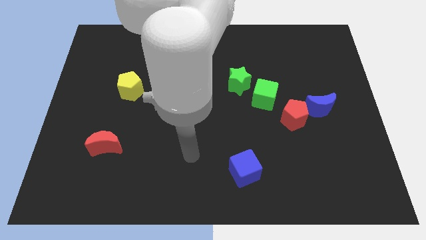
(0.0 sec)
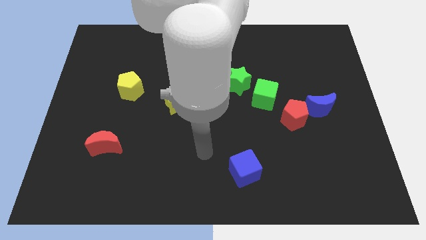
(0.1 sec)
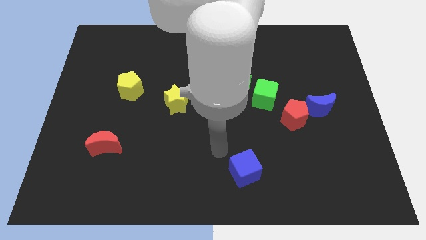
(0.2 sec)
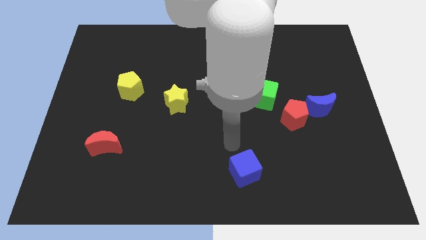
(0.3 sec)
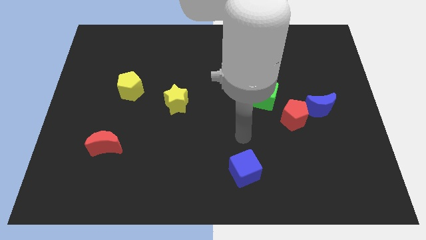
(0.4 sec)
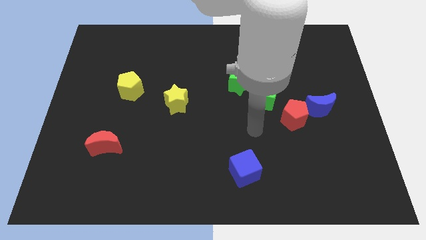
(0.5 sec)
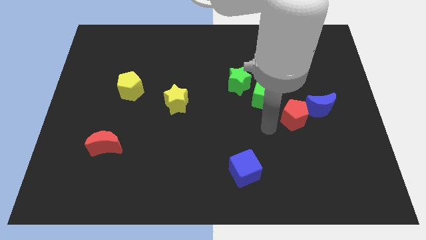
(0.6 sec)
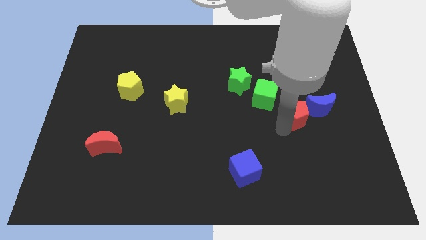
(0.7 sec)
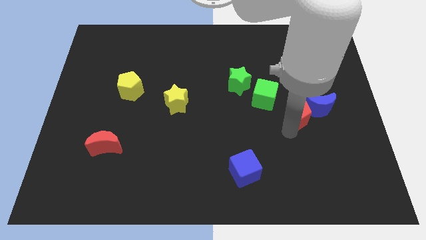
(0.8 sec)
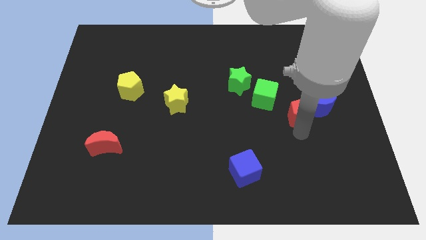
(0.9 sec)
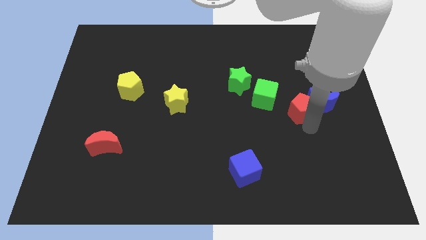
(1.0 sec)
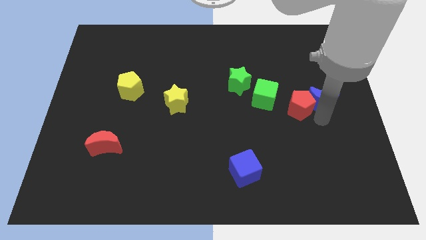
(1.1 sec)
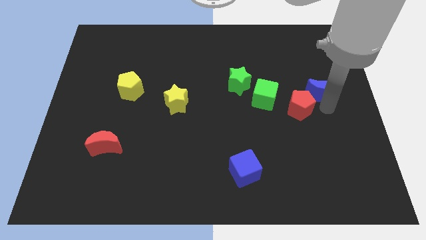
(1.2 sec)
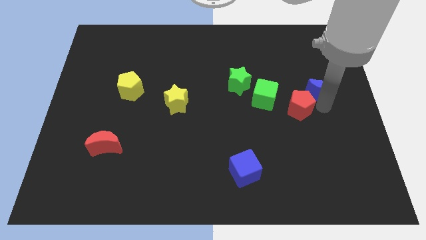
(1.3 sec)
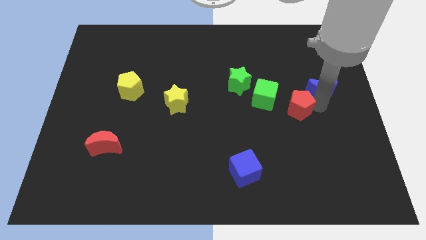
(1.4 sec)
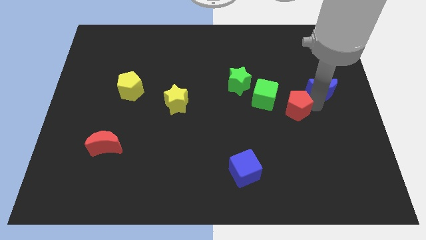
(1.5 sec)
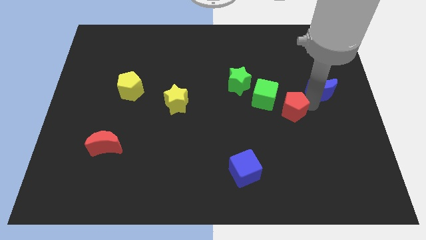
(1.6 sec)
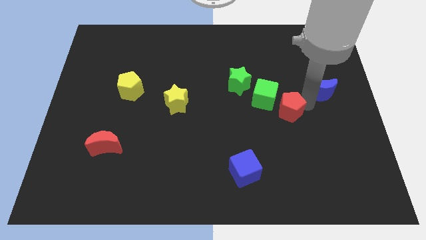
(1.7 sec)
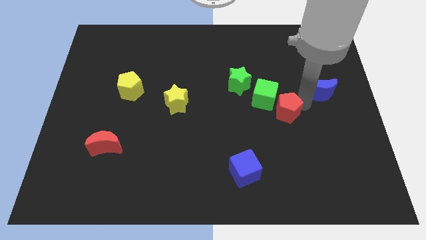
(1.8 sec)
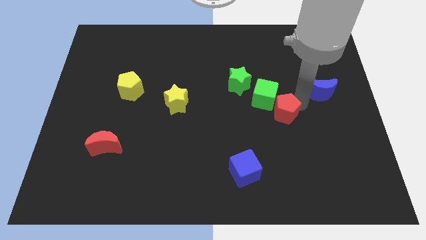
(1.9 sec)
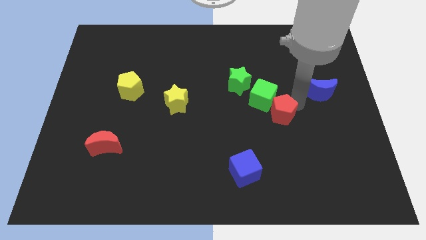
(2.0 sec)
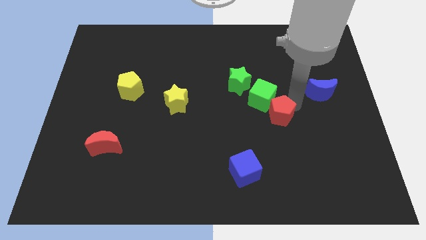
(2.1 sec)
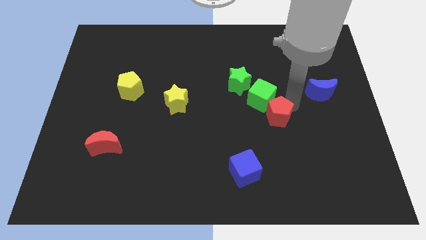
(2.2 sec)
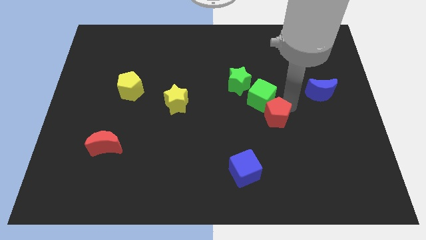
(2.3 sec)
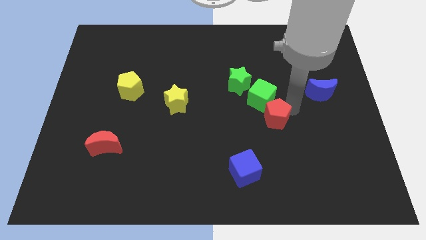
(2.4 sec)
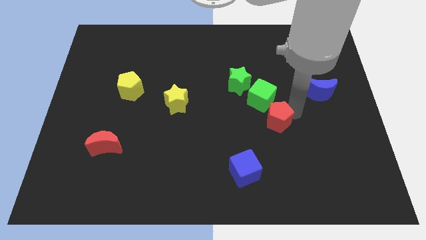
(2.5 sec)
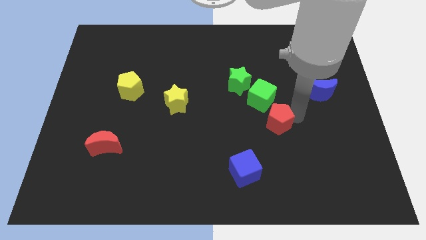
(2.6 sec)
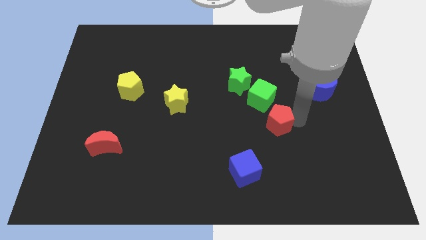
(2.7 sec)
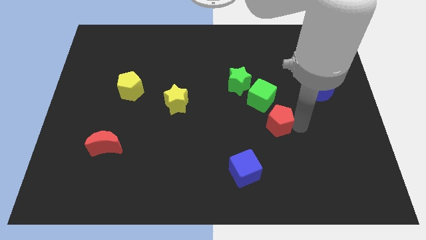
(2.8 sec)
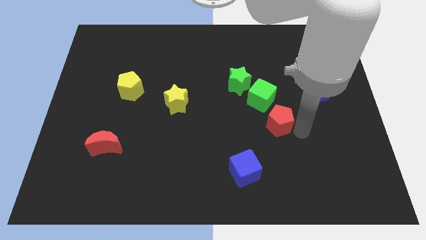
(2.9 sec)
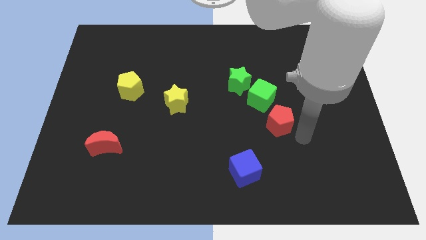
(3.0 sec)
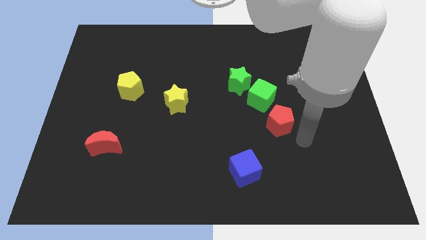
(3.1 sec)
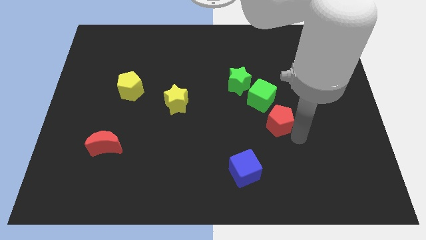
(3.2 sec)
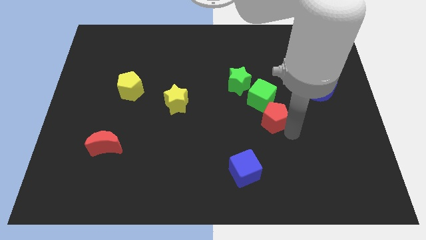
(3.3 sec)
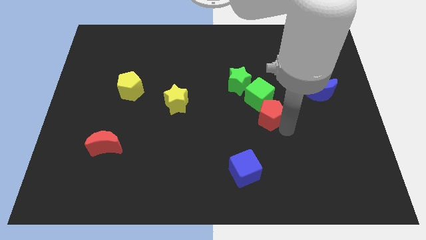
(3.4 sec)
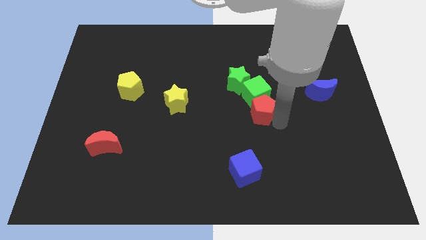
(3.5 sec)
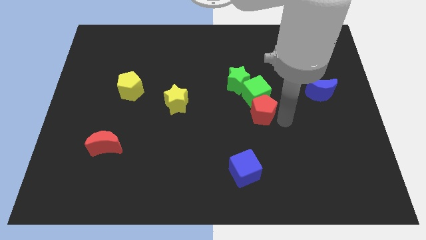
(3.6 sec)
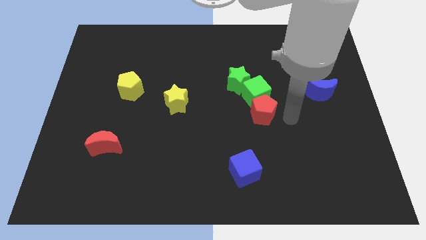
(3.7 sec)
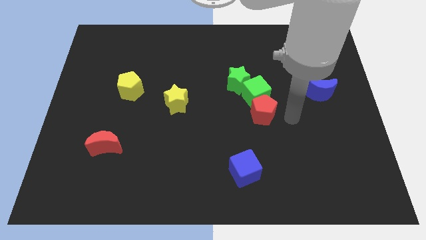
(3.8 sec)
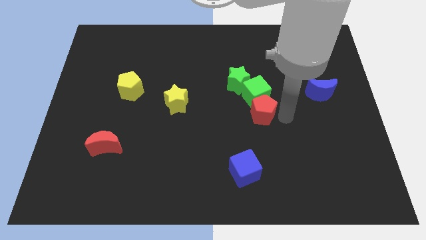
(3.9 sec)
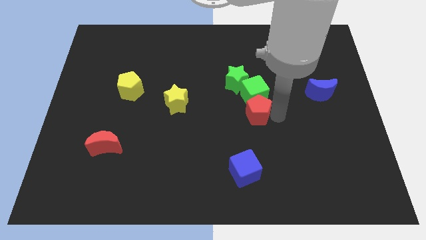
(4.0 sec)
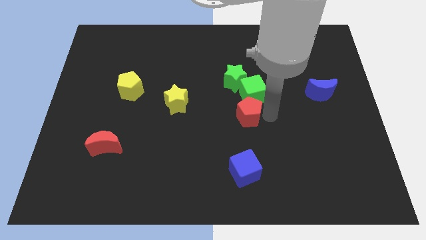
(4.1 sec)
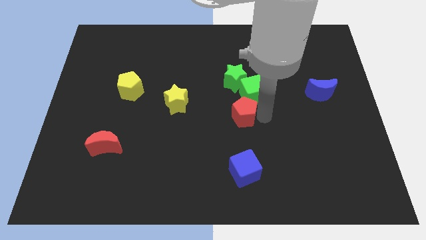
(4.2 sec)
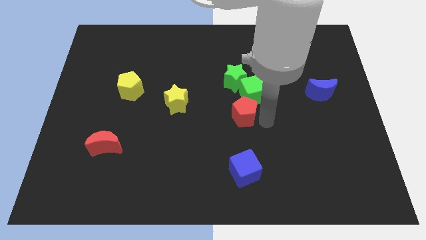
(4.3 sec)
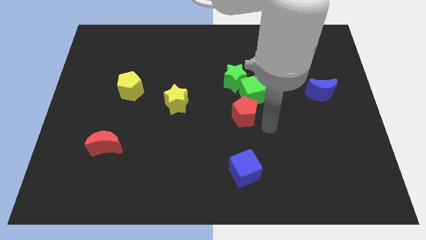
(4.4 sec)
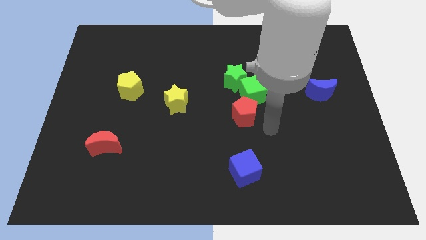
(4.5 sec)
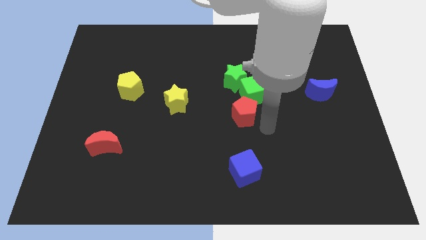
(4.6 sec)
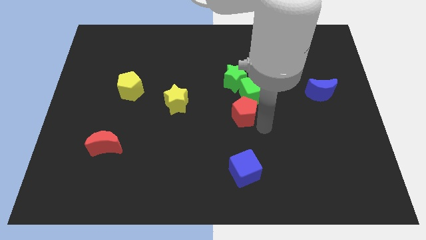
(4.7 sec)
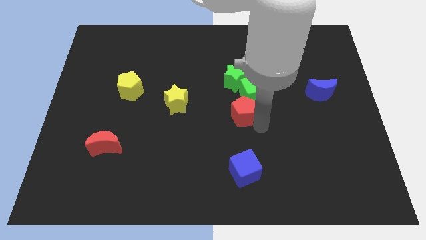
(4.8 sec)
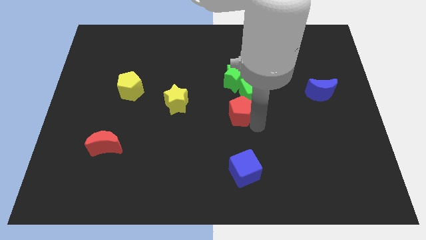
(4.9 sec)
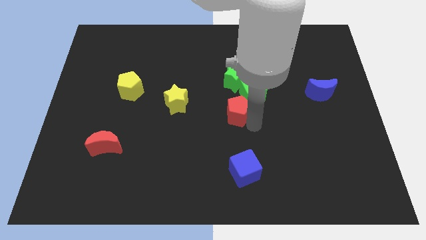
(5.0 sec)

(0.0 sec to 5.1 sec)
move the red pentagon to the right side of the yellow star

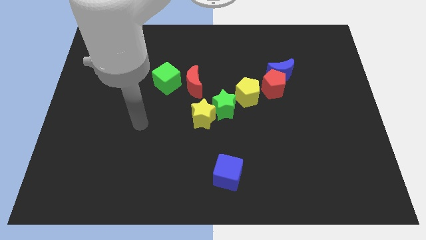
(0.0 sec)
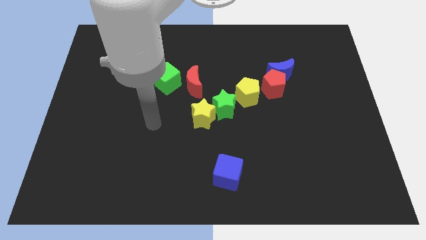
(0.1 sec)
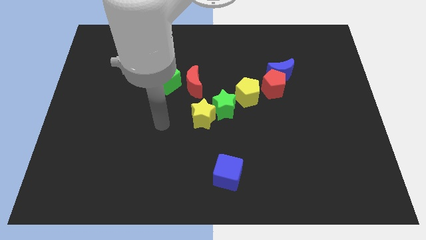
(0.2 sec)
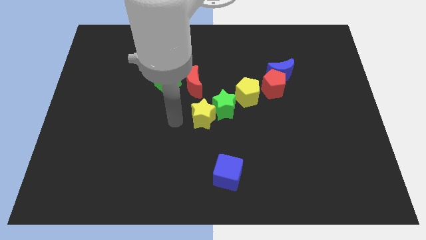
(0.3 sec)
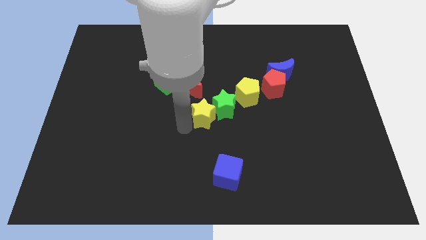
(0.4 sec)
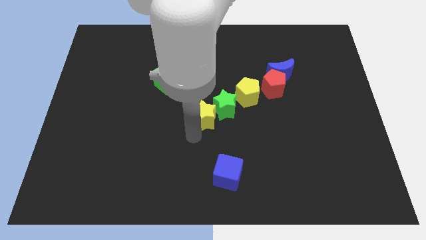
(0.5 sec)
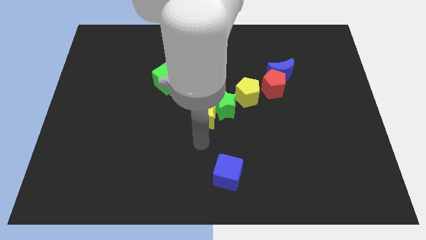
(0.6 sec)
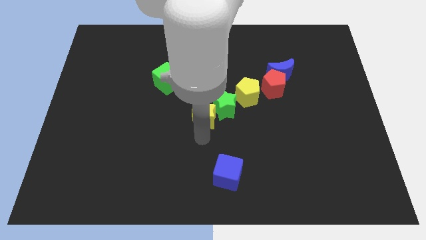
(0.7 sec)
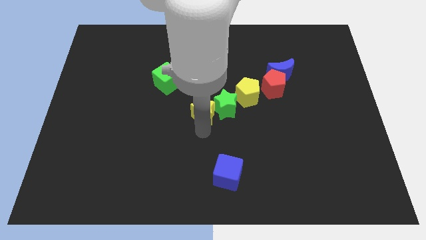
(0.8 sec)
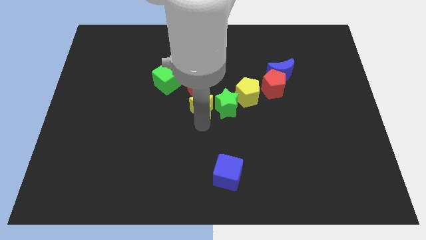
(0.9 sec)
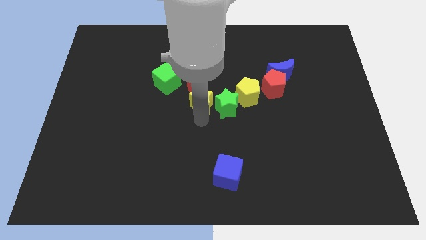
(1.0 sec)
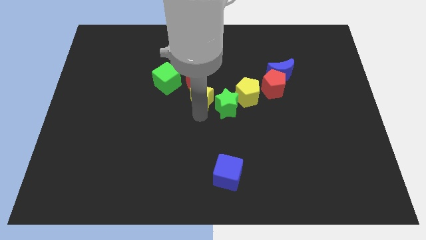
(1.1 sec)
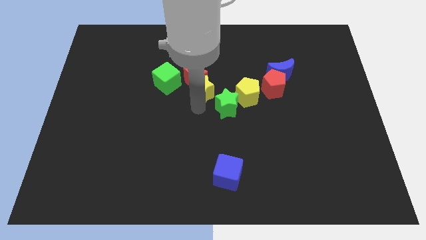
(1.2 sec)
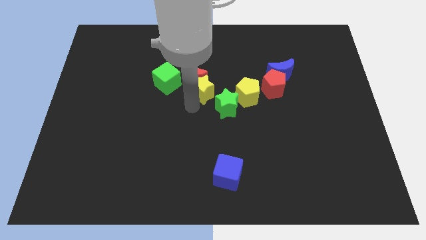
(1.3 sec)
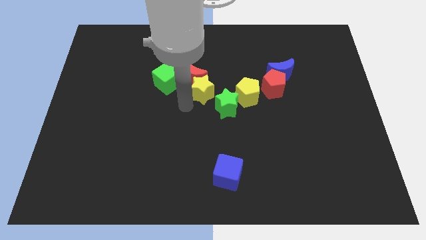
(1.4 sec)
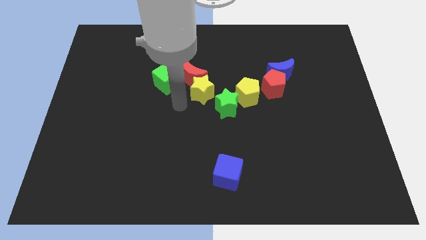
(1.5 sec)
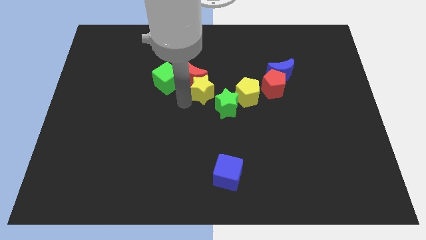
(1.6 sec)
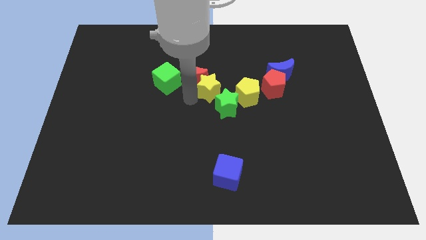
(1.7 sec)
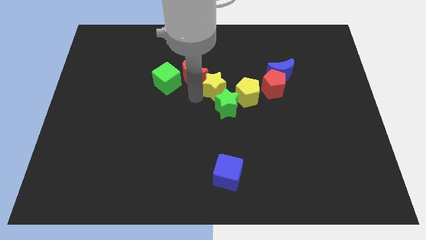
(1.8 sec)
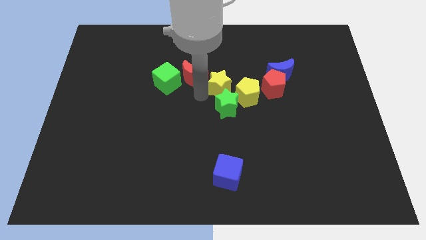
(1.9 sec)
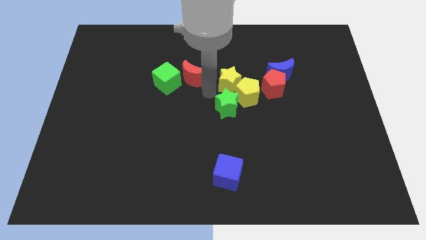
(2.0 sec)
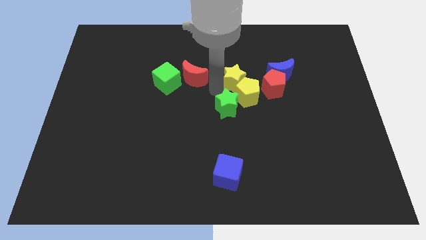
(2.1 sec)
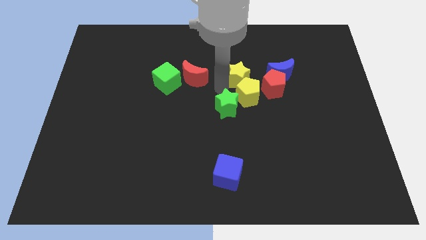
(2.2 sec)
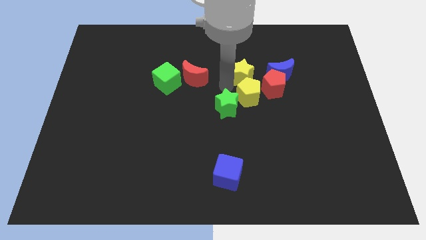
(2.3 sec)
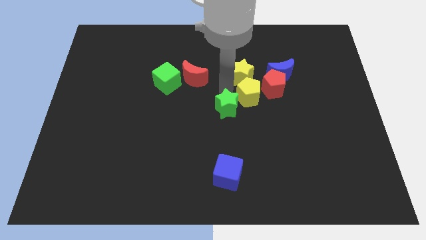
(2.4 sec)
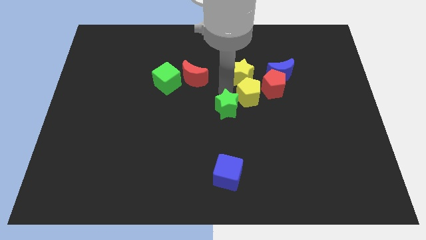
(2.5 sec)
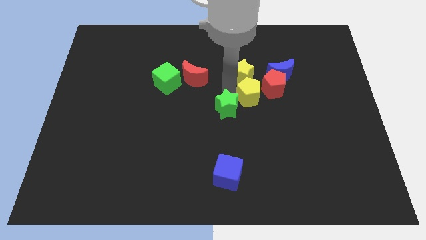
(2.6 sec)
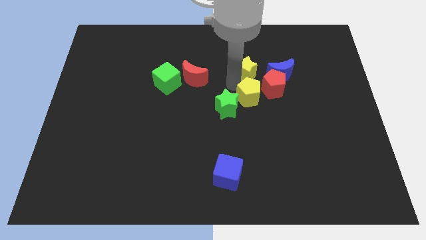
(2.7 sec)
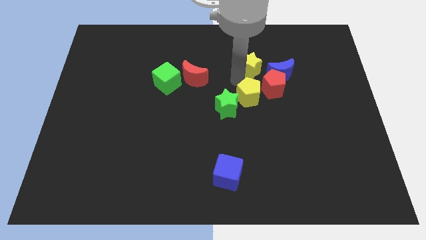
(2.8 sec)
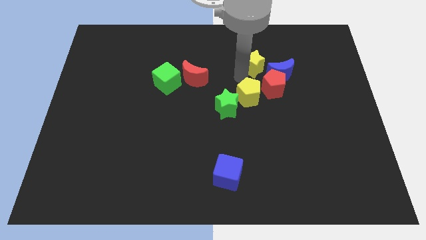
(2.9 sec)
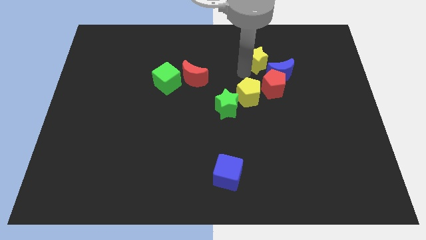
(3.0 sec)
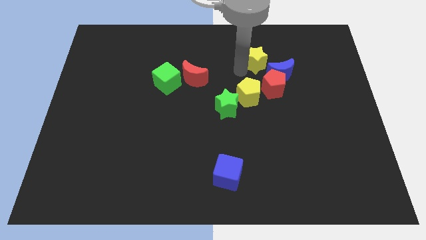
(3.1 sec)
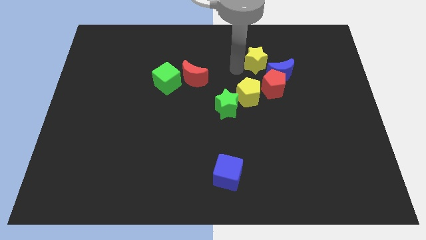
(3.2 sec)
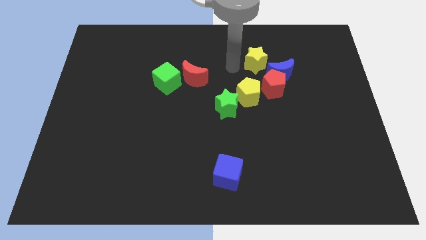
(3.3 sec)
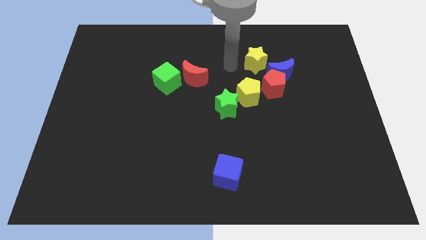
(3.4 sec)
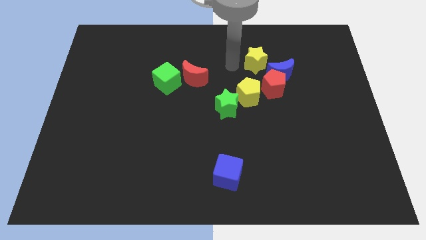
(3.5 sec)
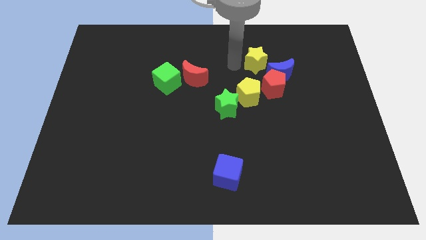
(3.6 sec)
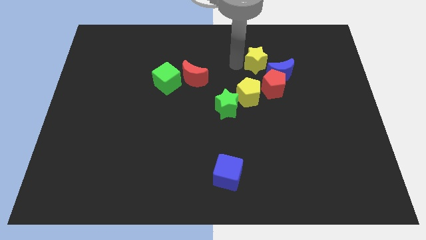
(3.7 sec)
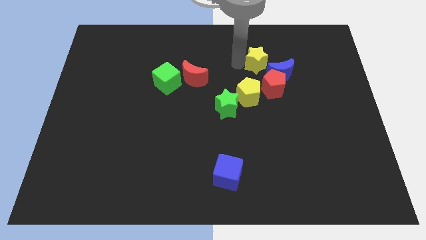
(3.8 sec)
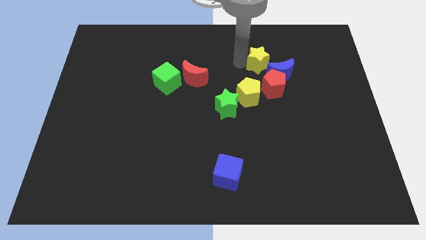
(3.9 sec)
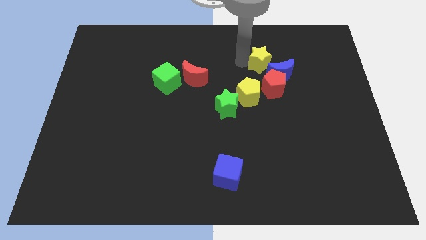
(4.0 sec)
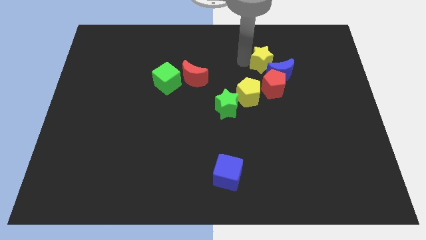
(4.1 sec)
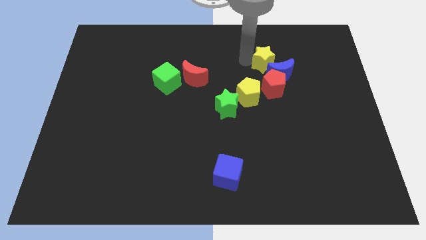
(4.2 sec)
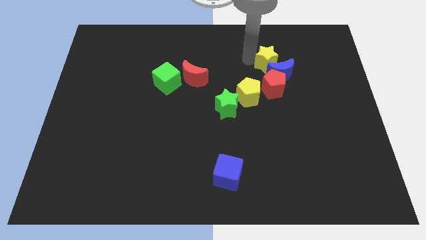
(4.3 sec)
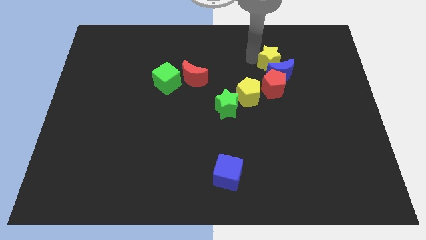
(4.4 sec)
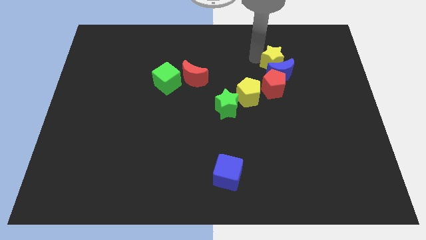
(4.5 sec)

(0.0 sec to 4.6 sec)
put the yellow star diagonally up and to the right of the blue moon
